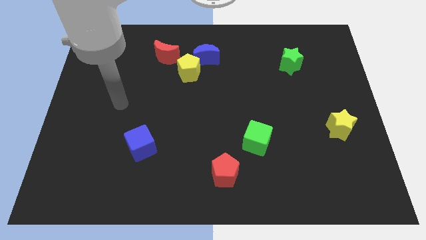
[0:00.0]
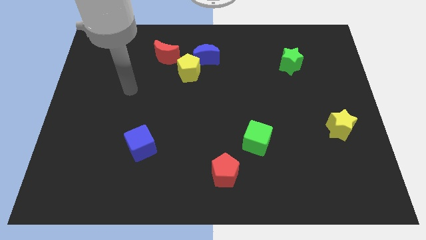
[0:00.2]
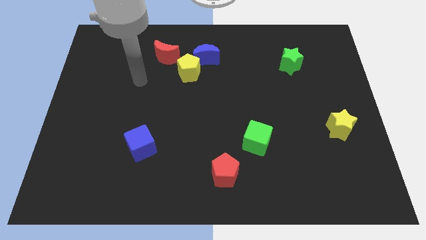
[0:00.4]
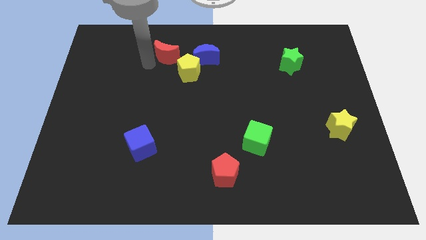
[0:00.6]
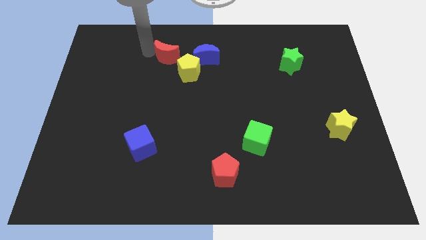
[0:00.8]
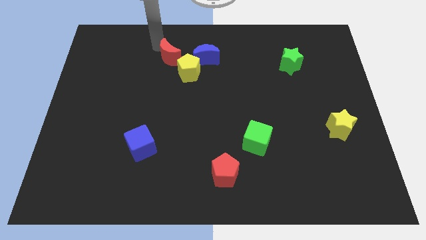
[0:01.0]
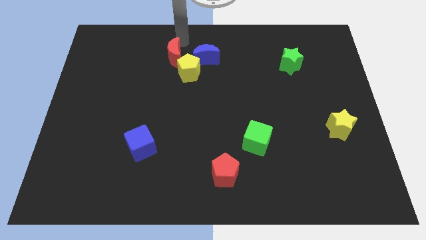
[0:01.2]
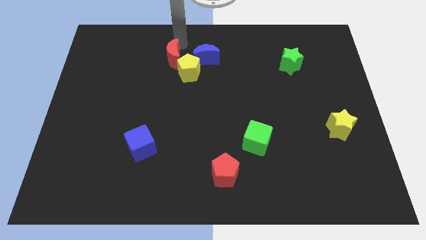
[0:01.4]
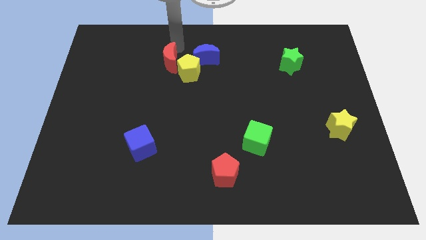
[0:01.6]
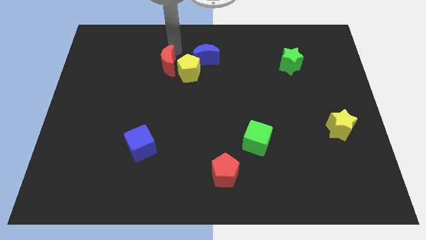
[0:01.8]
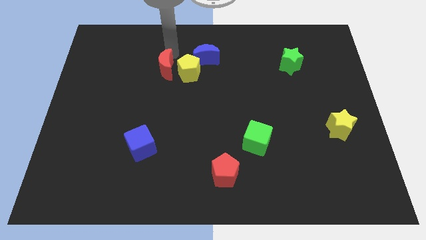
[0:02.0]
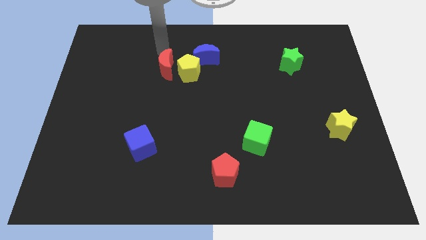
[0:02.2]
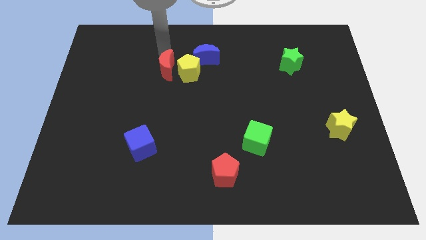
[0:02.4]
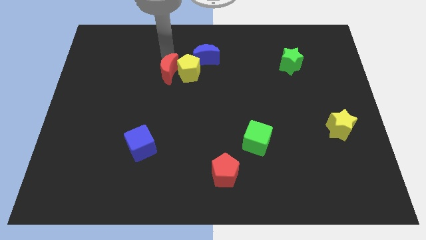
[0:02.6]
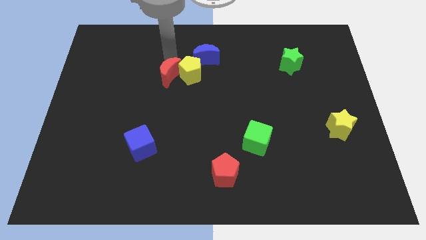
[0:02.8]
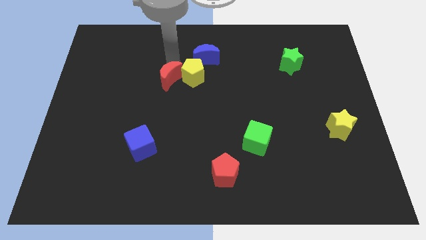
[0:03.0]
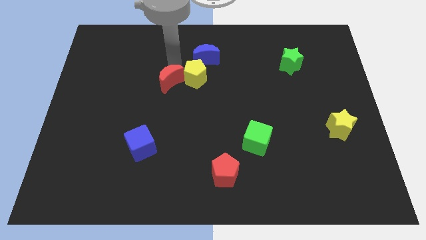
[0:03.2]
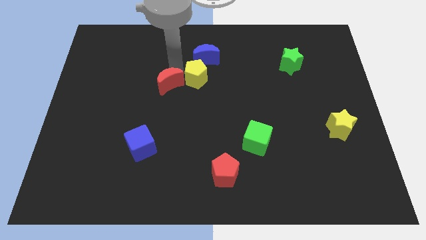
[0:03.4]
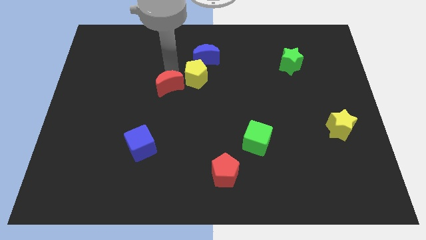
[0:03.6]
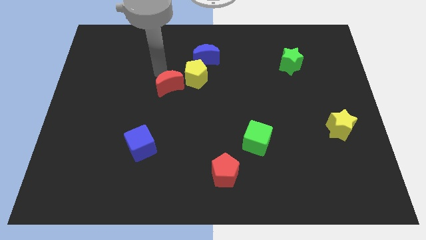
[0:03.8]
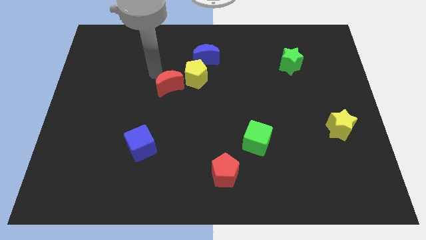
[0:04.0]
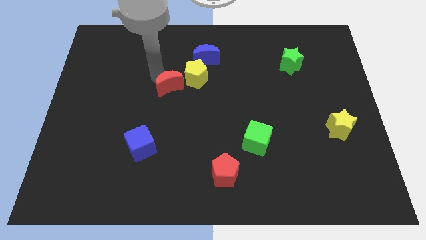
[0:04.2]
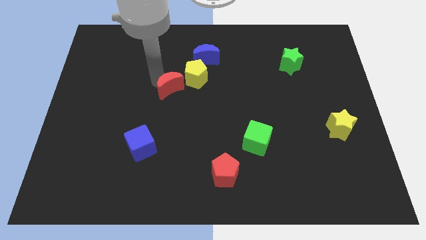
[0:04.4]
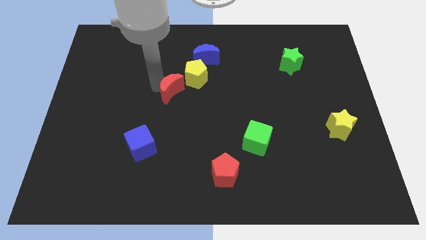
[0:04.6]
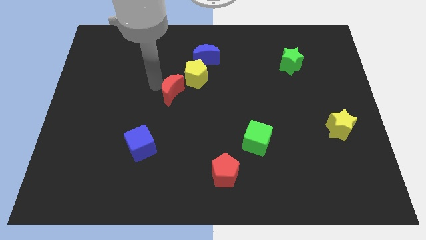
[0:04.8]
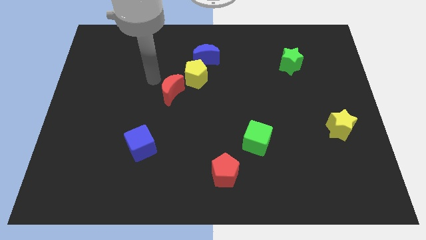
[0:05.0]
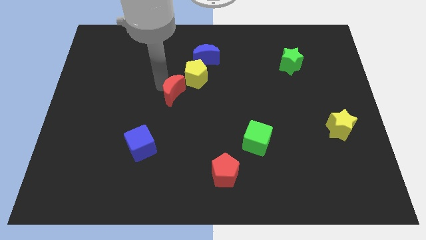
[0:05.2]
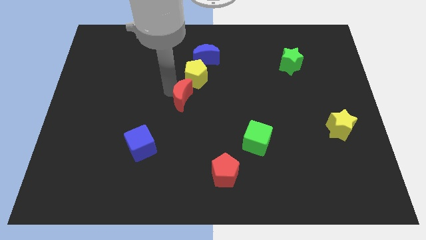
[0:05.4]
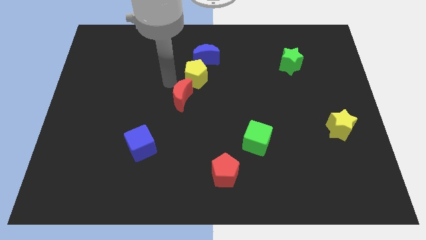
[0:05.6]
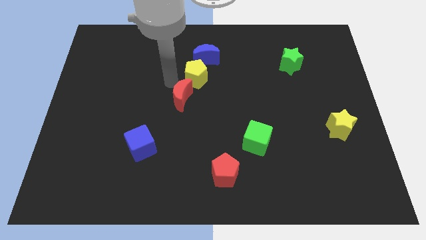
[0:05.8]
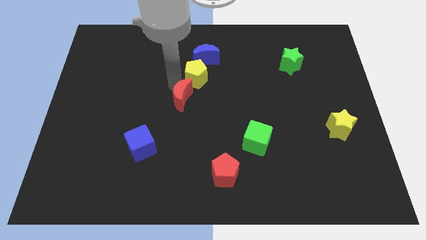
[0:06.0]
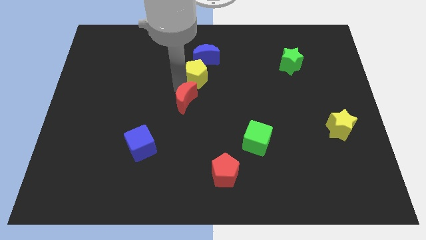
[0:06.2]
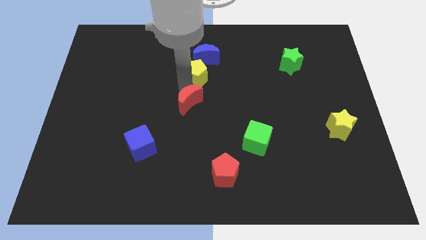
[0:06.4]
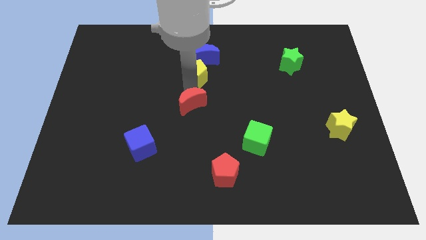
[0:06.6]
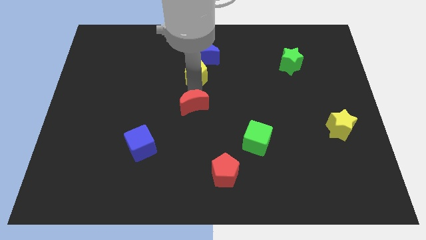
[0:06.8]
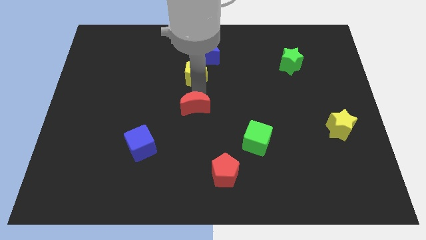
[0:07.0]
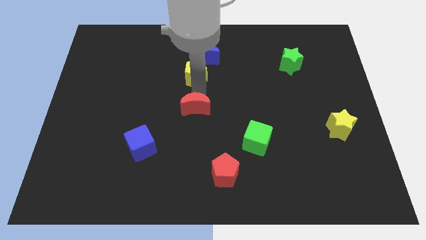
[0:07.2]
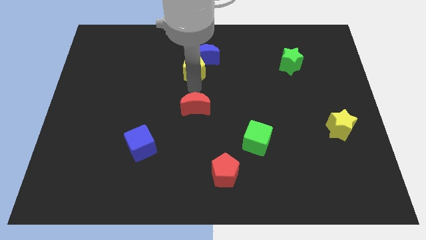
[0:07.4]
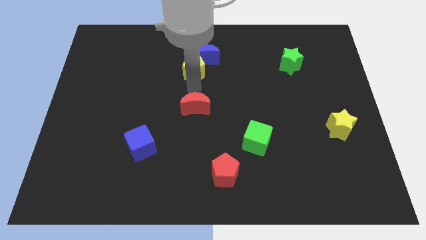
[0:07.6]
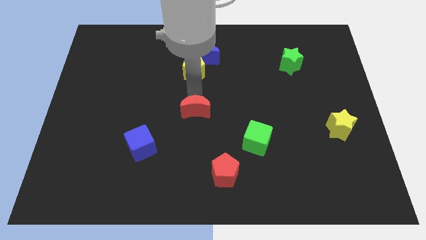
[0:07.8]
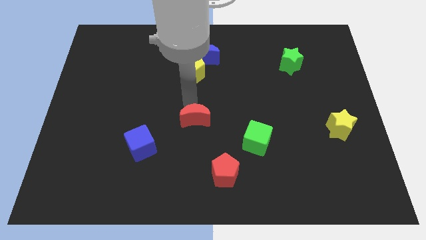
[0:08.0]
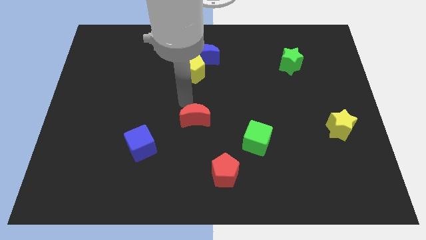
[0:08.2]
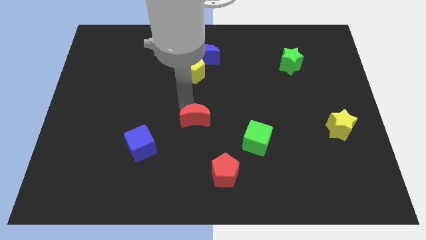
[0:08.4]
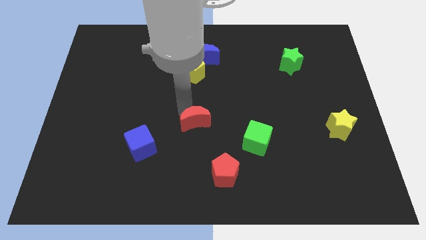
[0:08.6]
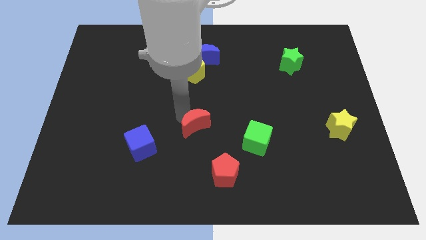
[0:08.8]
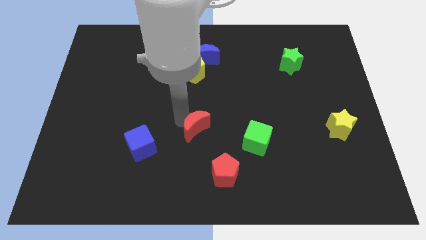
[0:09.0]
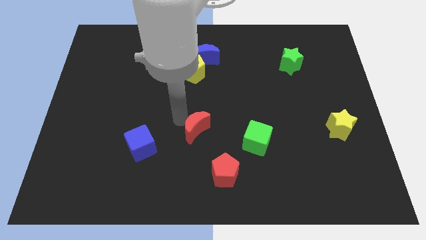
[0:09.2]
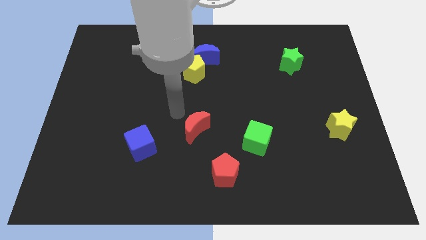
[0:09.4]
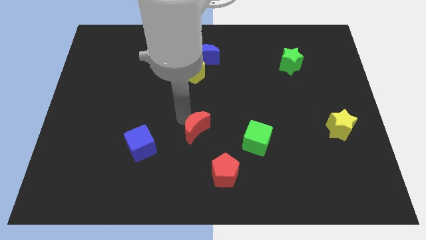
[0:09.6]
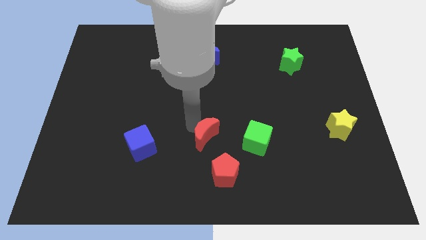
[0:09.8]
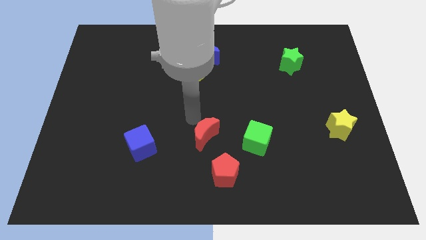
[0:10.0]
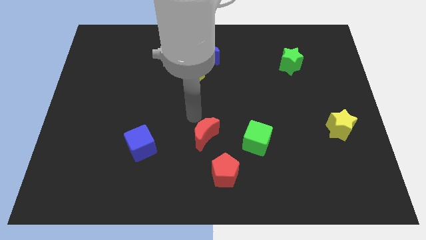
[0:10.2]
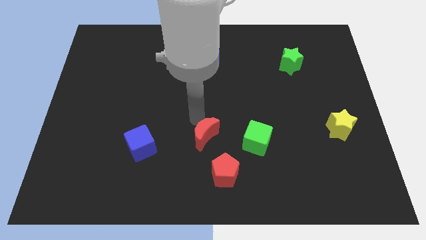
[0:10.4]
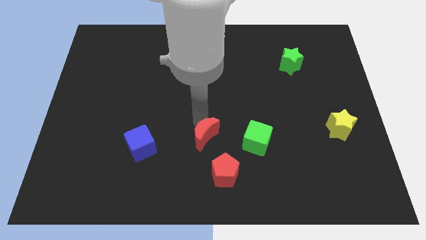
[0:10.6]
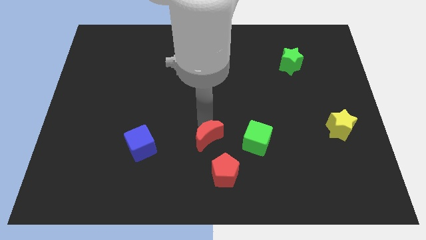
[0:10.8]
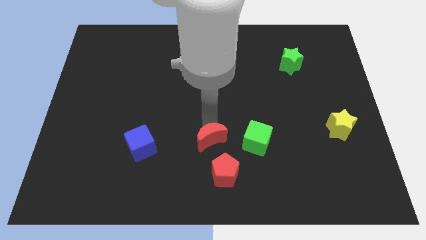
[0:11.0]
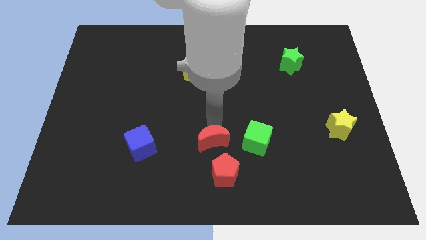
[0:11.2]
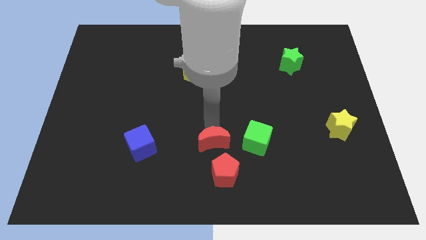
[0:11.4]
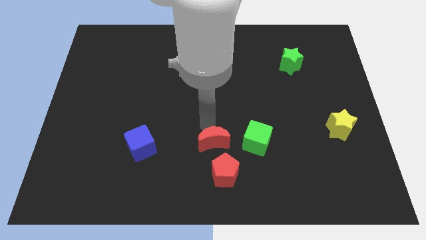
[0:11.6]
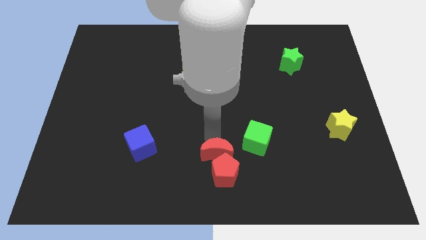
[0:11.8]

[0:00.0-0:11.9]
push the red moon next to the red pentagon

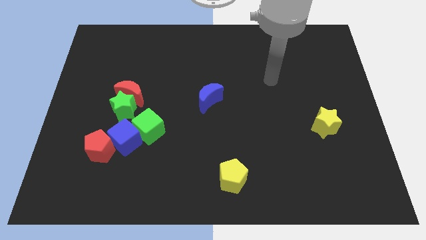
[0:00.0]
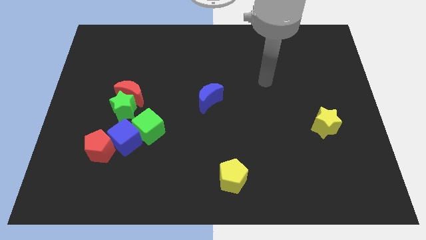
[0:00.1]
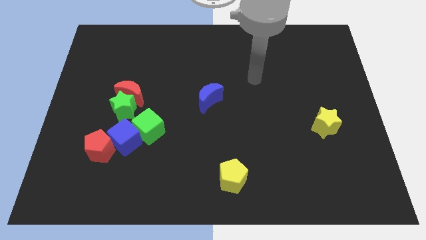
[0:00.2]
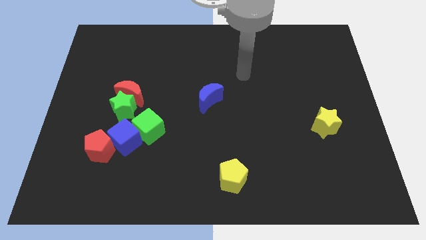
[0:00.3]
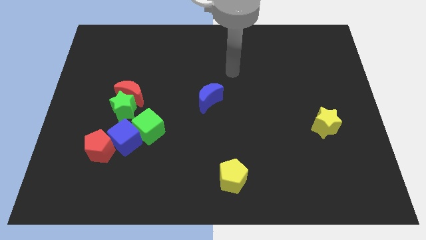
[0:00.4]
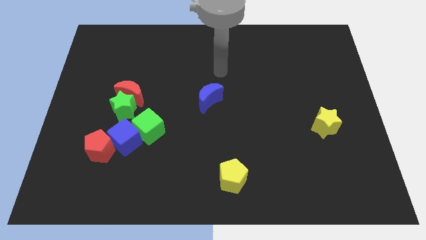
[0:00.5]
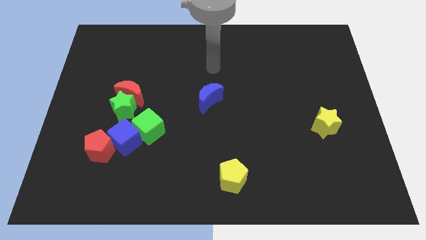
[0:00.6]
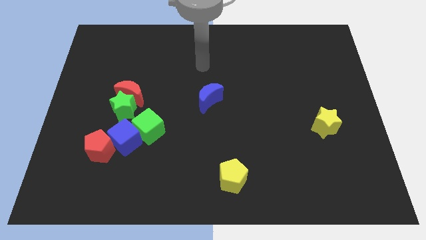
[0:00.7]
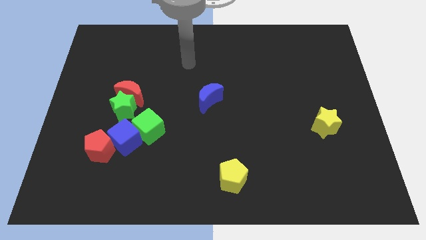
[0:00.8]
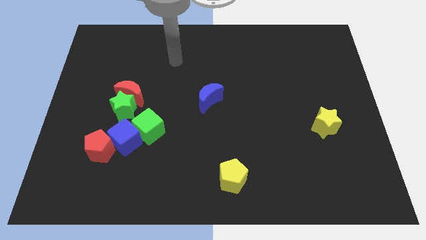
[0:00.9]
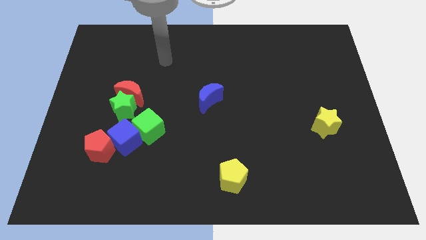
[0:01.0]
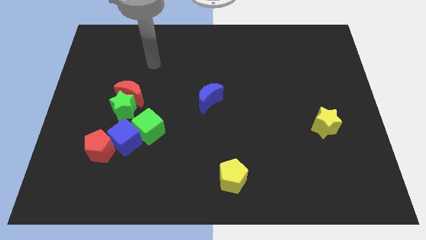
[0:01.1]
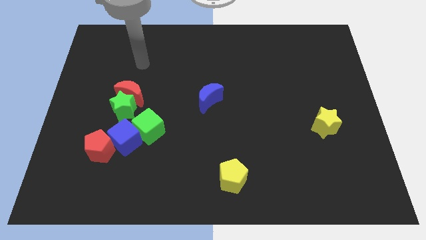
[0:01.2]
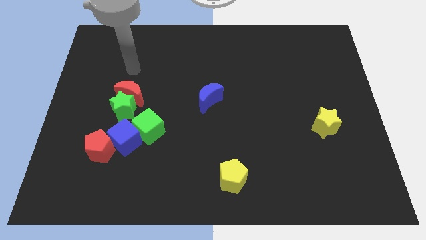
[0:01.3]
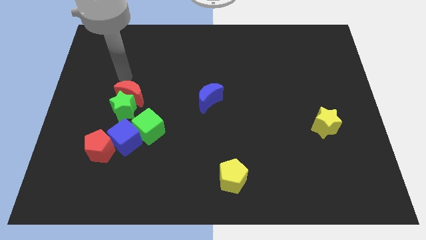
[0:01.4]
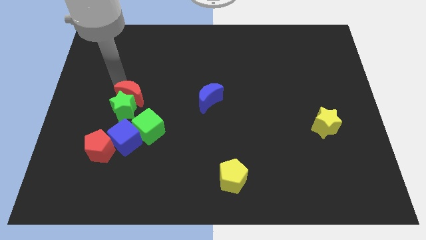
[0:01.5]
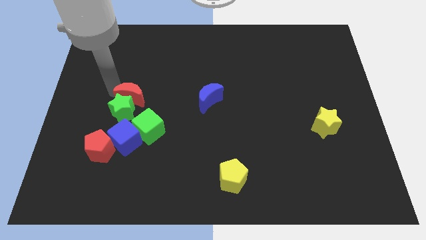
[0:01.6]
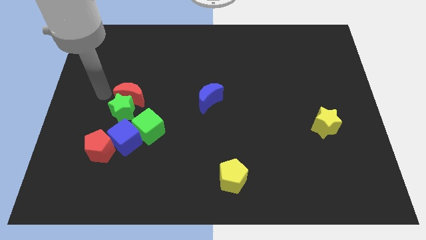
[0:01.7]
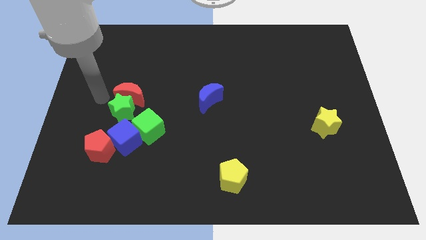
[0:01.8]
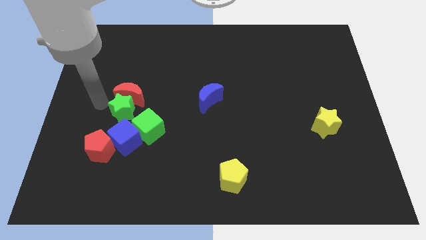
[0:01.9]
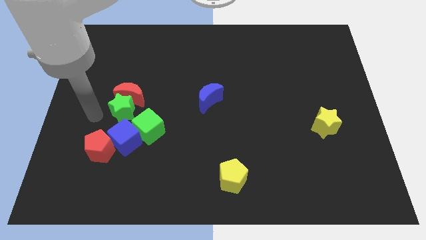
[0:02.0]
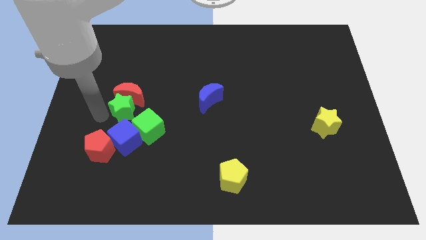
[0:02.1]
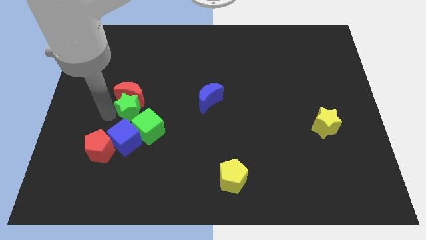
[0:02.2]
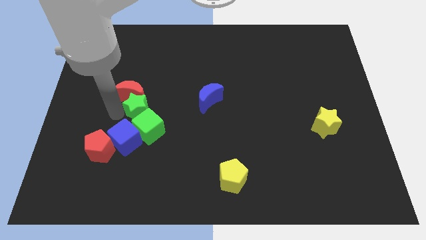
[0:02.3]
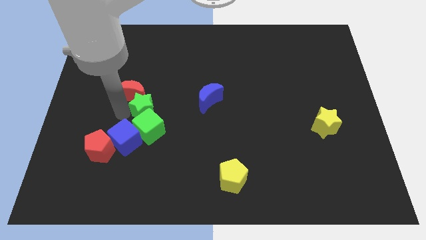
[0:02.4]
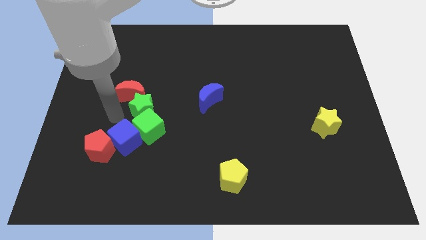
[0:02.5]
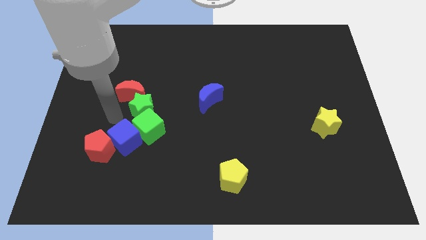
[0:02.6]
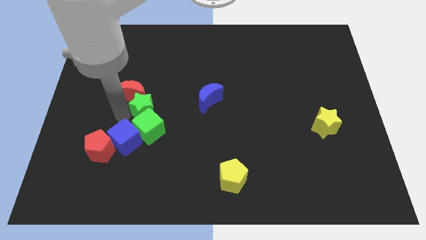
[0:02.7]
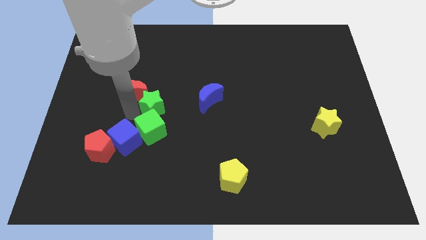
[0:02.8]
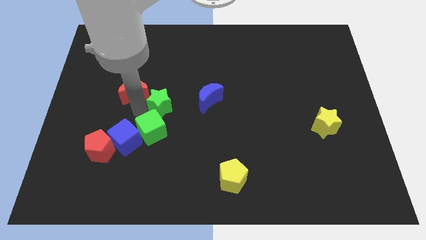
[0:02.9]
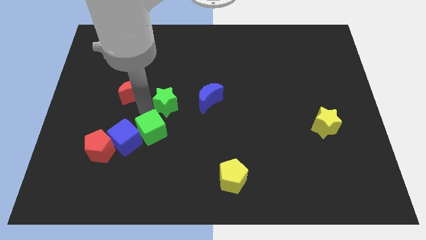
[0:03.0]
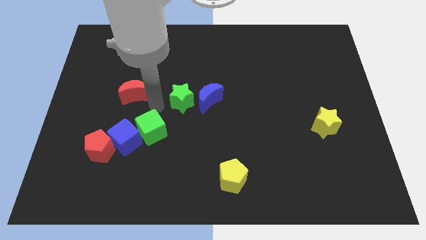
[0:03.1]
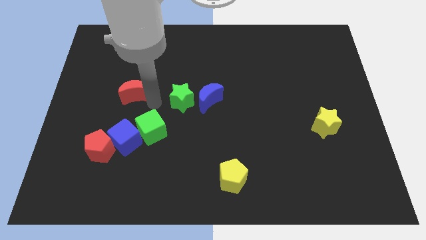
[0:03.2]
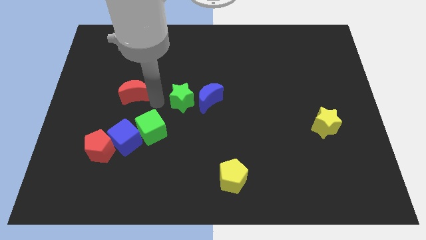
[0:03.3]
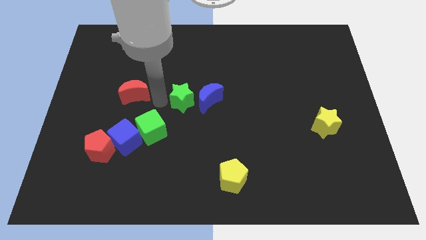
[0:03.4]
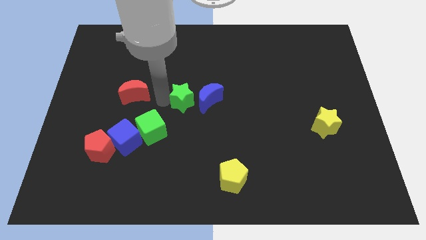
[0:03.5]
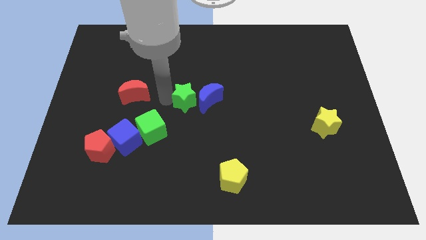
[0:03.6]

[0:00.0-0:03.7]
slide the green star close to the blue moon
